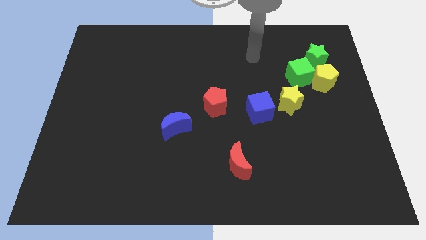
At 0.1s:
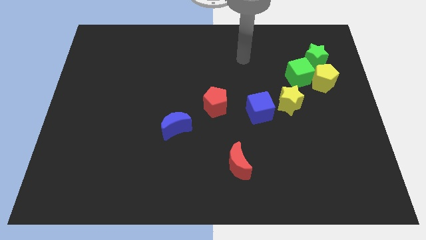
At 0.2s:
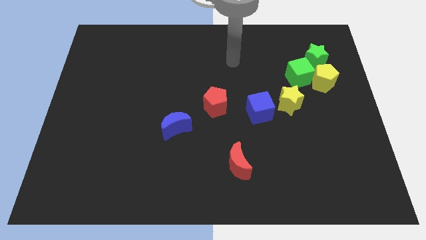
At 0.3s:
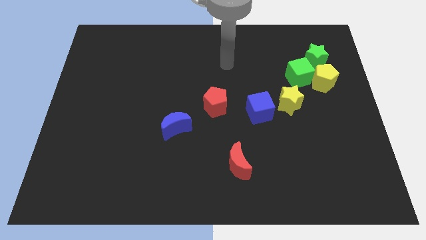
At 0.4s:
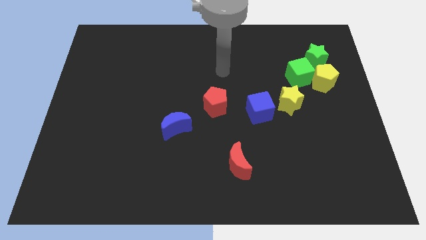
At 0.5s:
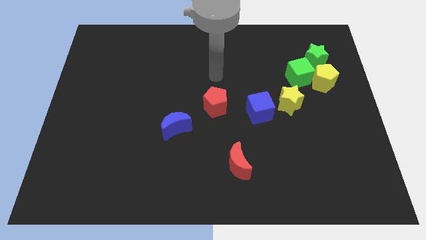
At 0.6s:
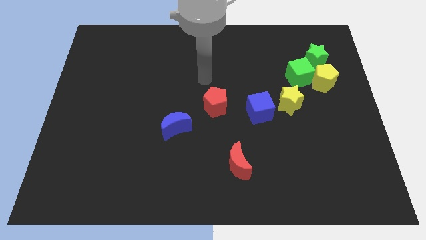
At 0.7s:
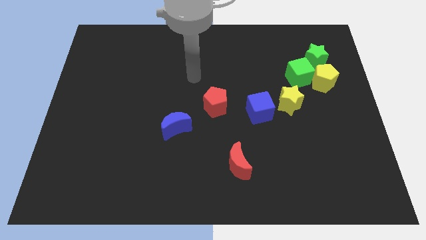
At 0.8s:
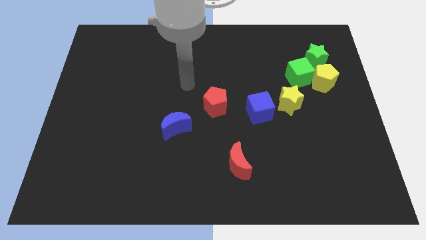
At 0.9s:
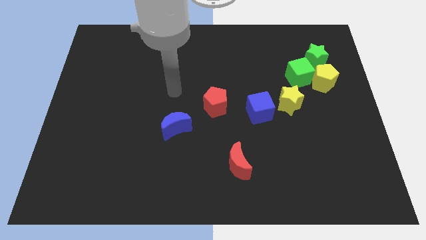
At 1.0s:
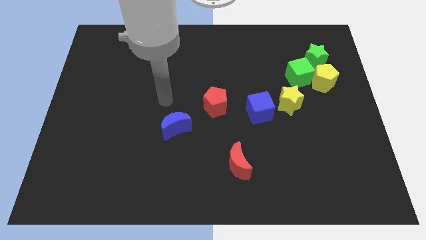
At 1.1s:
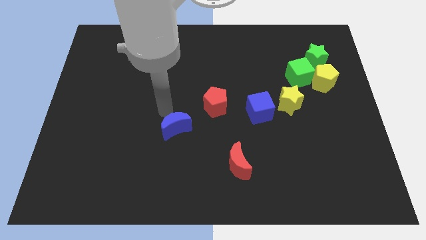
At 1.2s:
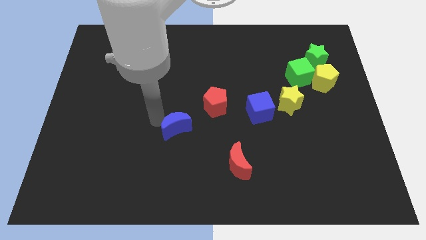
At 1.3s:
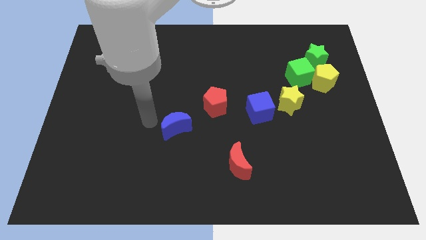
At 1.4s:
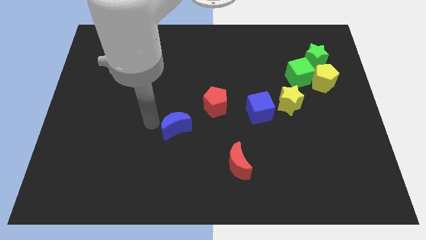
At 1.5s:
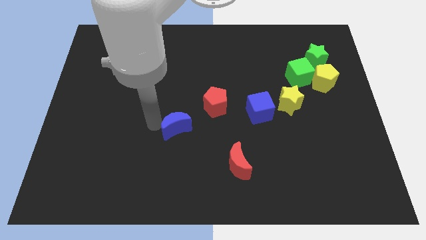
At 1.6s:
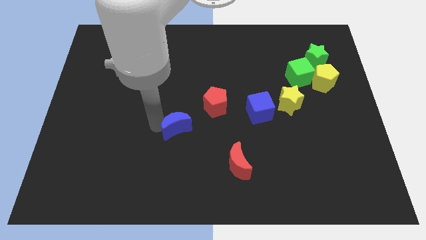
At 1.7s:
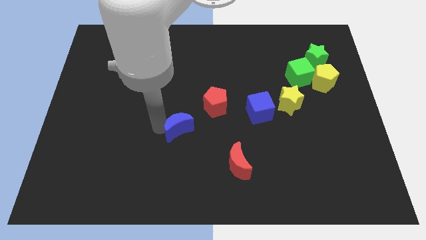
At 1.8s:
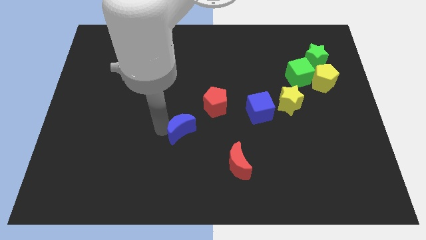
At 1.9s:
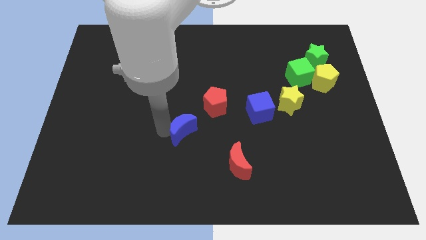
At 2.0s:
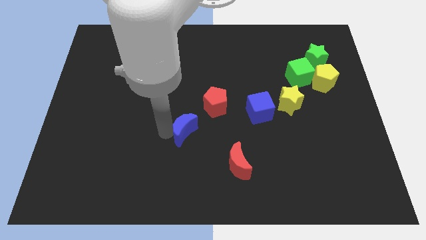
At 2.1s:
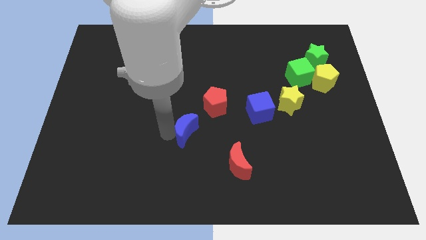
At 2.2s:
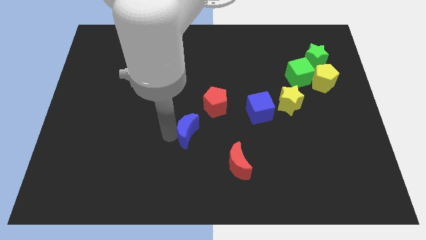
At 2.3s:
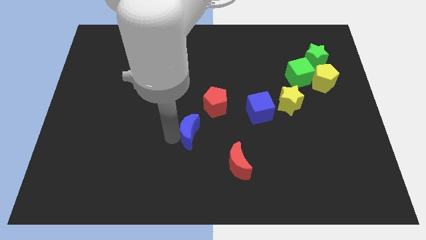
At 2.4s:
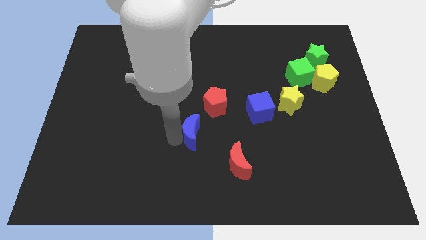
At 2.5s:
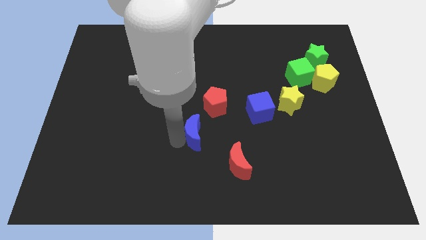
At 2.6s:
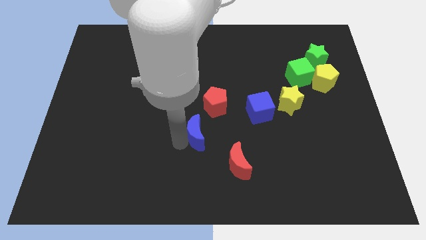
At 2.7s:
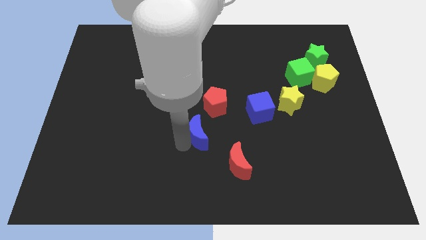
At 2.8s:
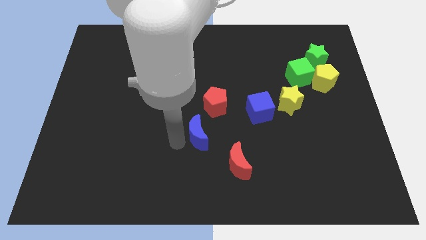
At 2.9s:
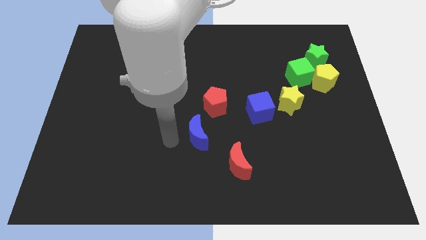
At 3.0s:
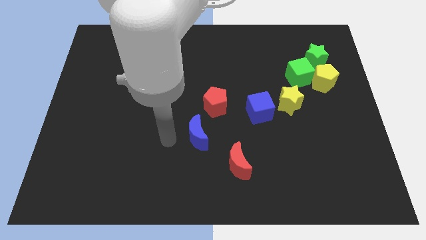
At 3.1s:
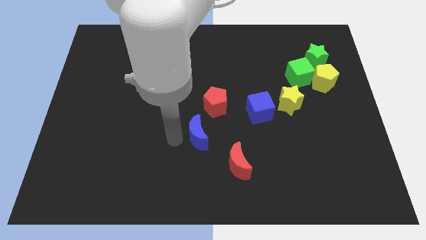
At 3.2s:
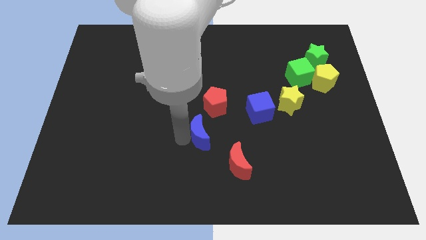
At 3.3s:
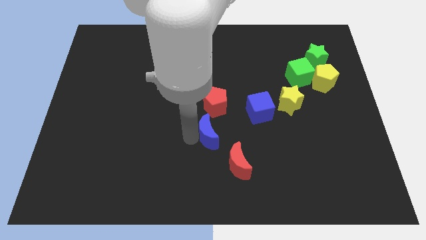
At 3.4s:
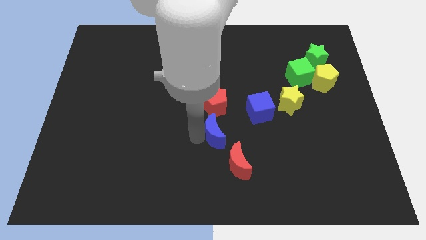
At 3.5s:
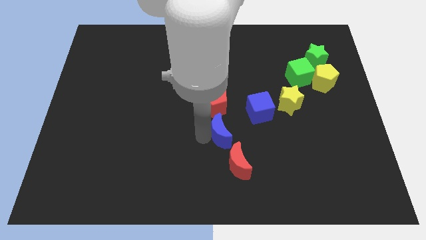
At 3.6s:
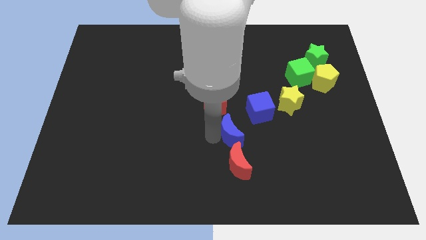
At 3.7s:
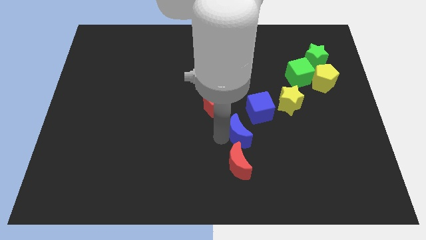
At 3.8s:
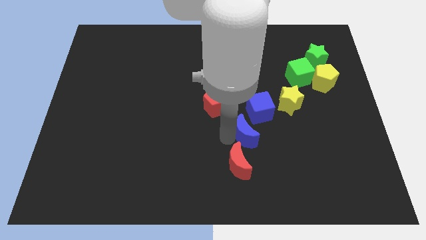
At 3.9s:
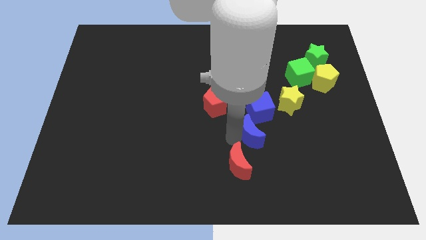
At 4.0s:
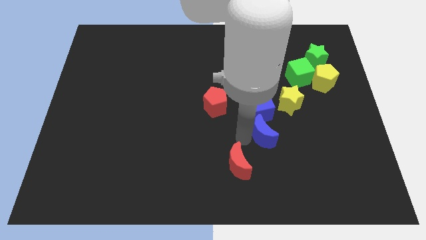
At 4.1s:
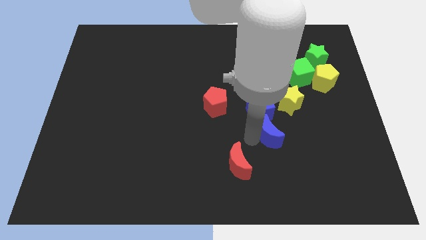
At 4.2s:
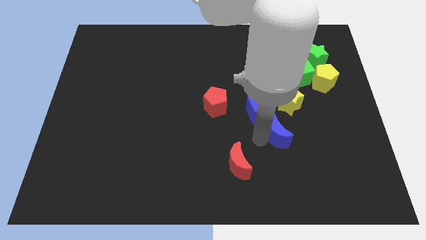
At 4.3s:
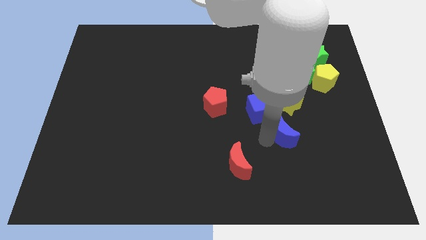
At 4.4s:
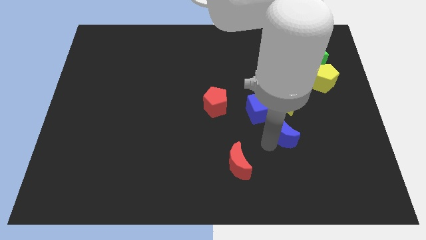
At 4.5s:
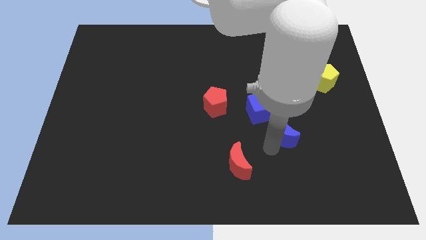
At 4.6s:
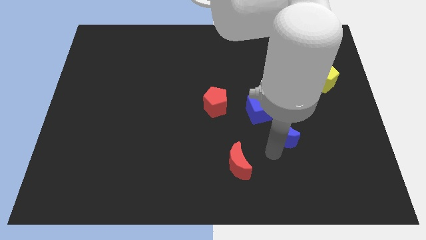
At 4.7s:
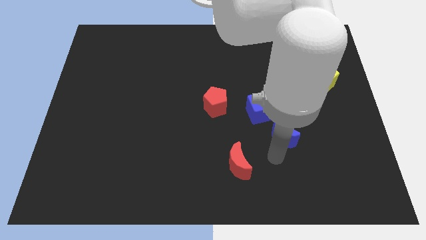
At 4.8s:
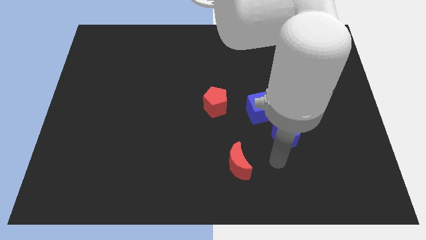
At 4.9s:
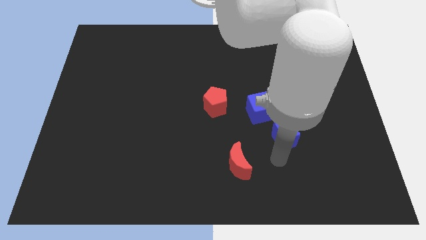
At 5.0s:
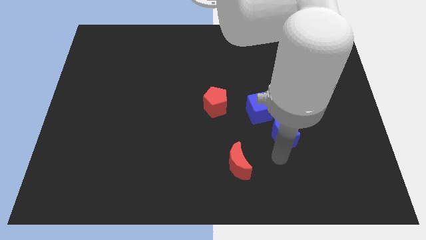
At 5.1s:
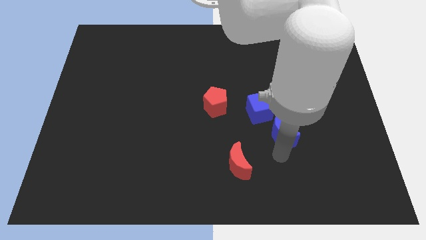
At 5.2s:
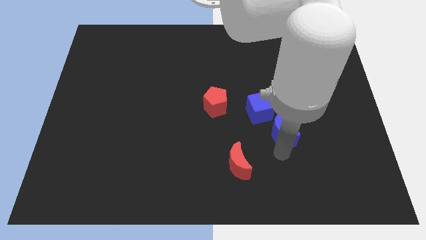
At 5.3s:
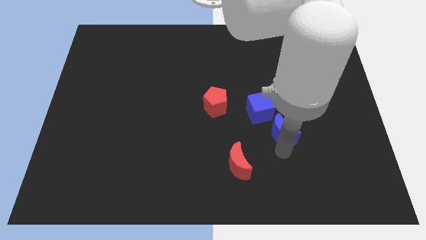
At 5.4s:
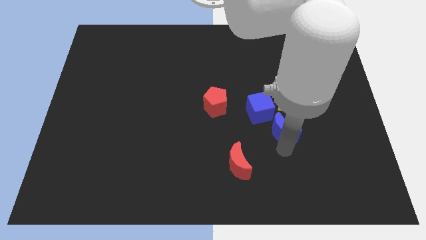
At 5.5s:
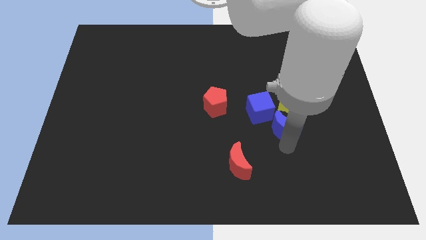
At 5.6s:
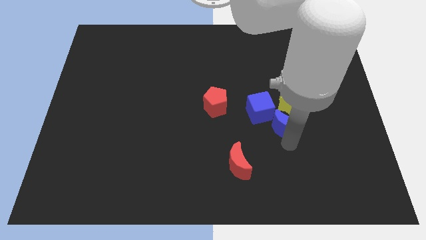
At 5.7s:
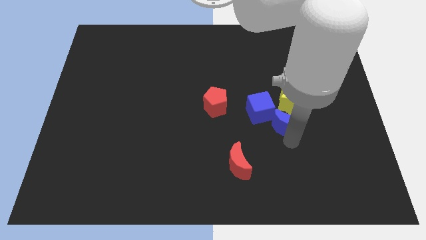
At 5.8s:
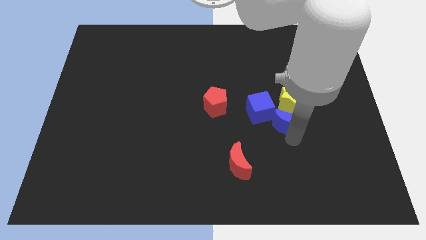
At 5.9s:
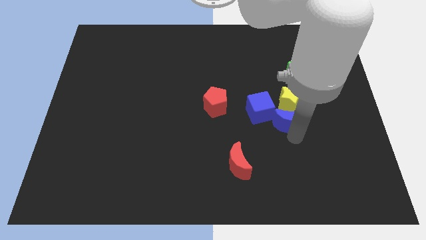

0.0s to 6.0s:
move the blue moon towards the yellow star
